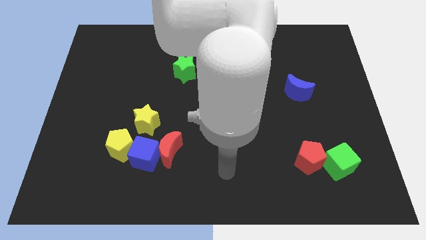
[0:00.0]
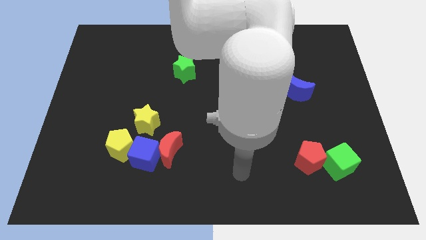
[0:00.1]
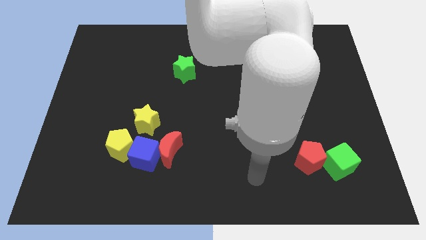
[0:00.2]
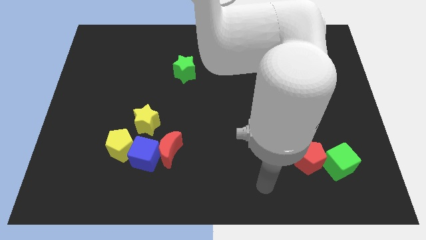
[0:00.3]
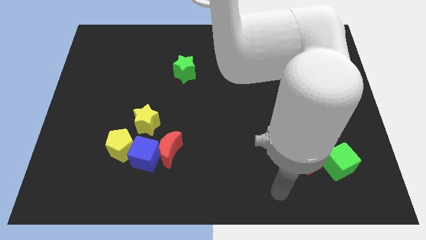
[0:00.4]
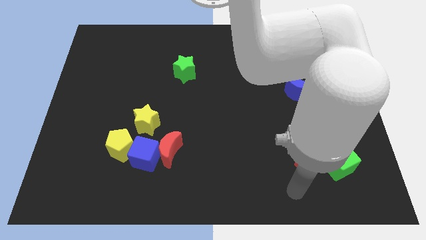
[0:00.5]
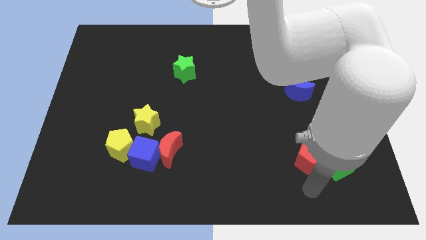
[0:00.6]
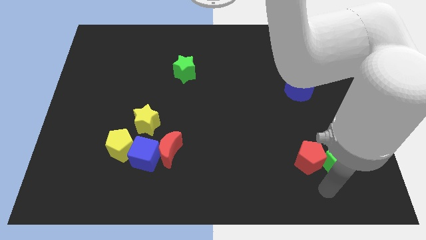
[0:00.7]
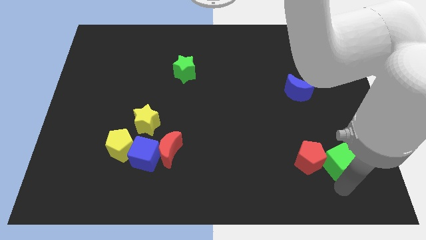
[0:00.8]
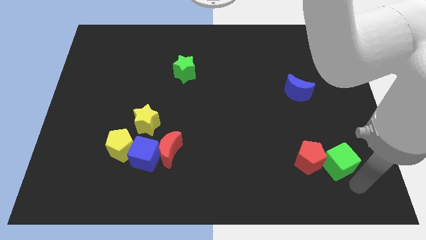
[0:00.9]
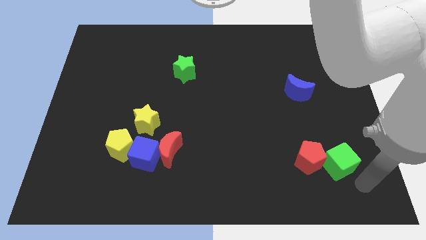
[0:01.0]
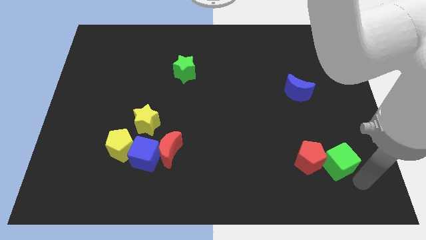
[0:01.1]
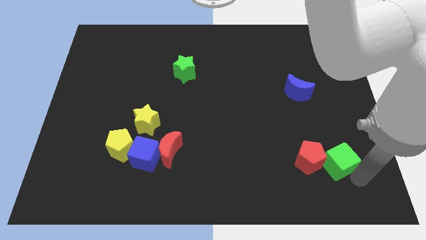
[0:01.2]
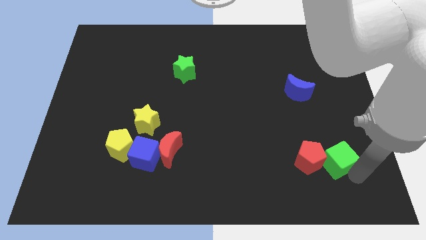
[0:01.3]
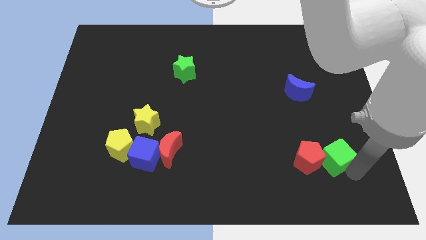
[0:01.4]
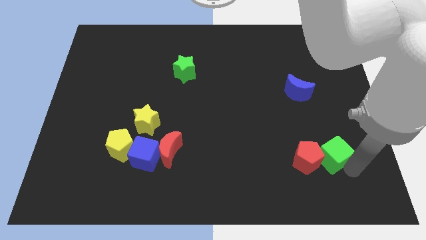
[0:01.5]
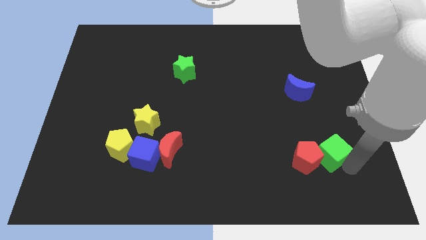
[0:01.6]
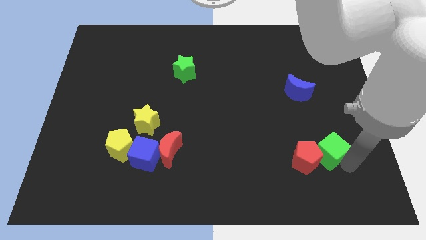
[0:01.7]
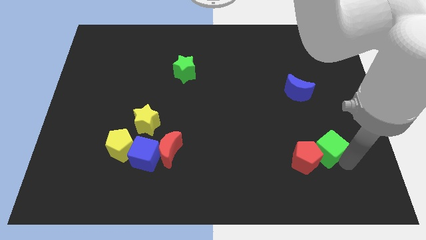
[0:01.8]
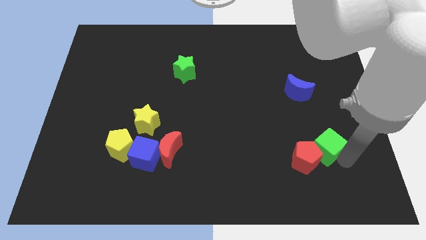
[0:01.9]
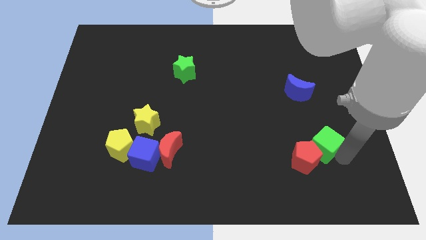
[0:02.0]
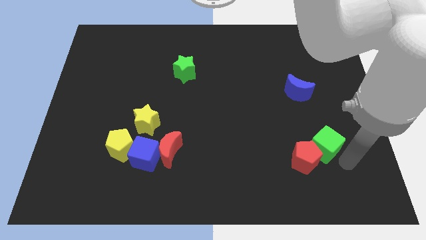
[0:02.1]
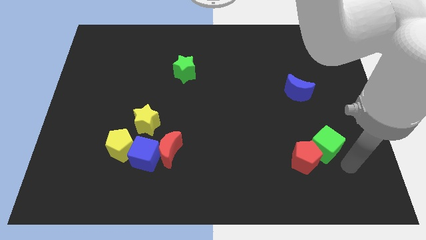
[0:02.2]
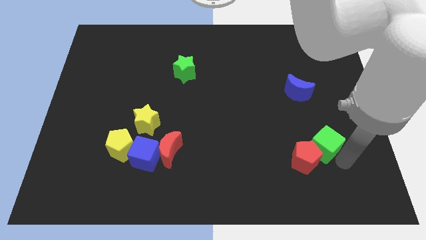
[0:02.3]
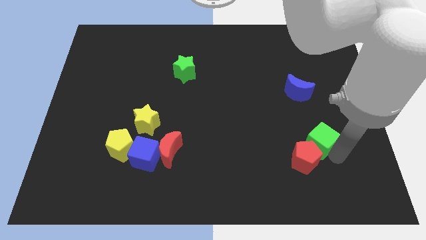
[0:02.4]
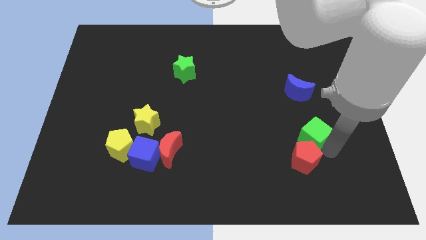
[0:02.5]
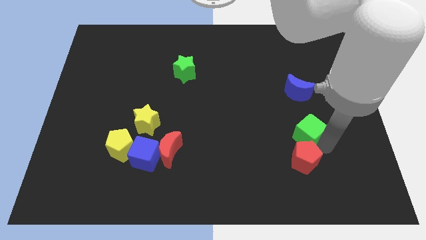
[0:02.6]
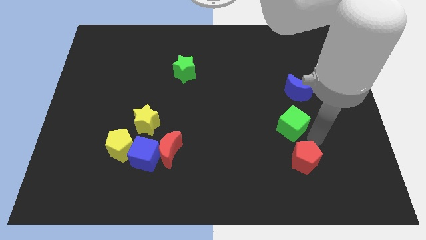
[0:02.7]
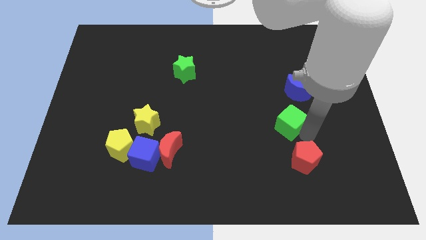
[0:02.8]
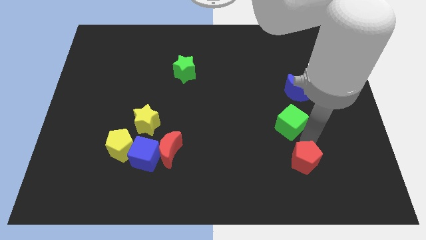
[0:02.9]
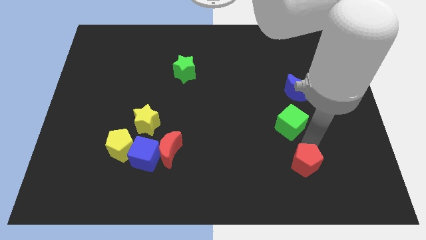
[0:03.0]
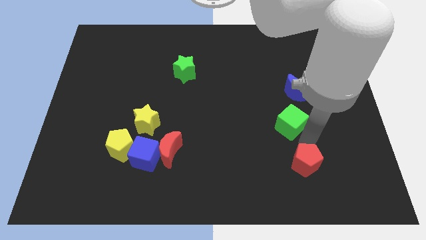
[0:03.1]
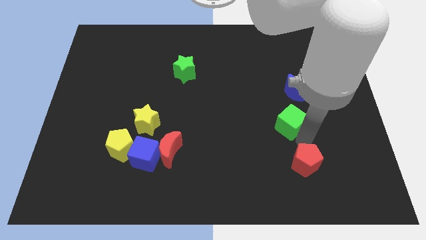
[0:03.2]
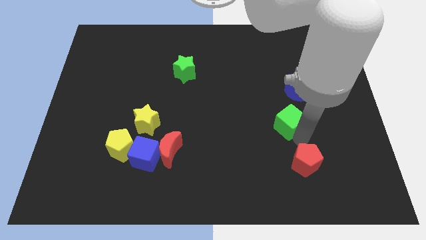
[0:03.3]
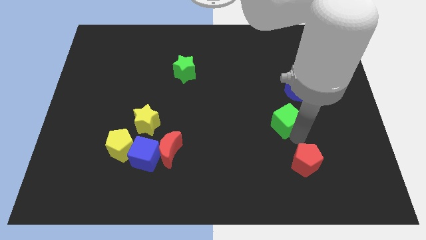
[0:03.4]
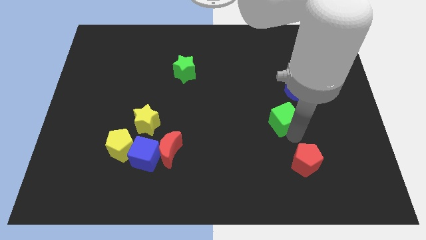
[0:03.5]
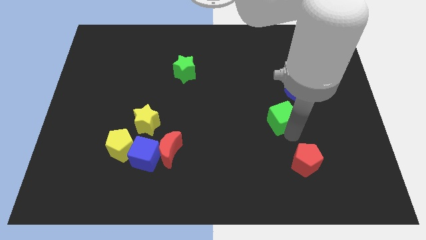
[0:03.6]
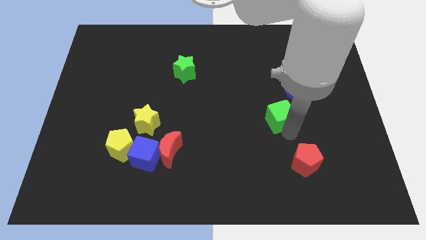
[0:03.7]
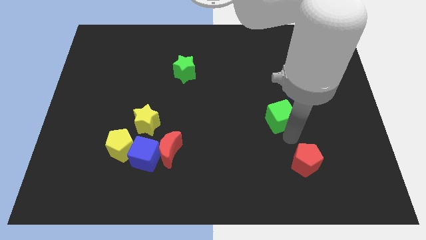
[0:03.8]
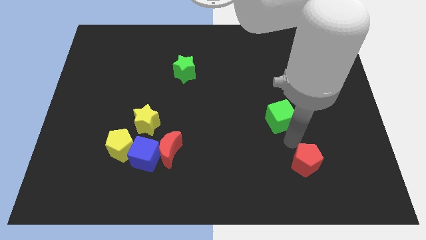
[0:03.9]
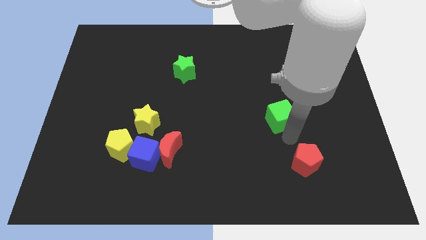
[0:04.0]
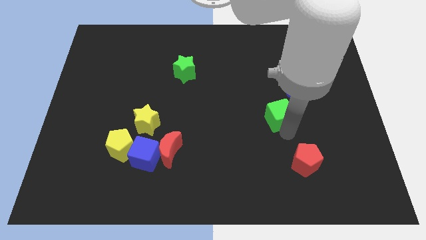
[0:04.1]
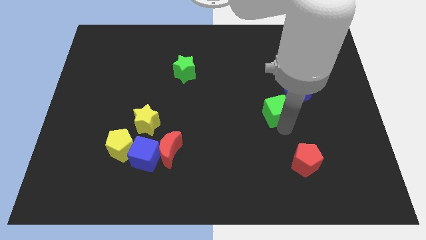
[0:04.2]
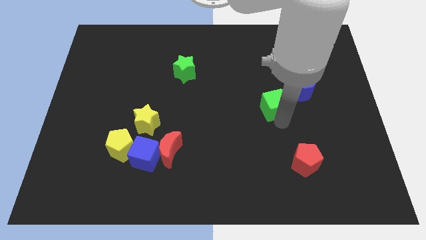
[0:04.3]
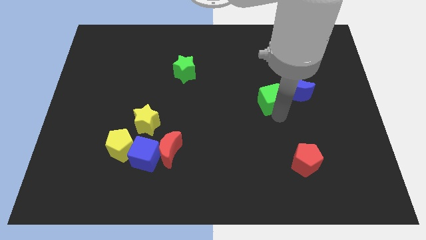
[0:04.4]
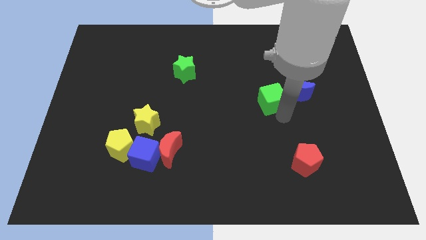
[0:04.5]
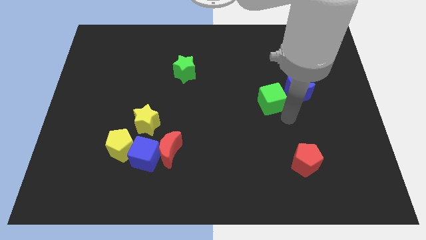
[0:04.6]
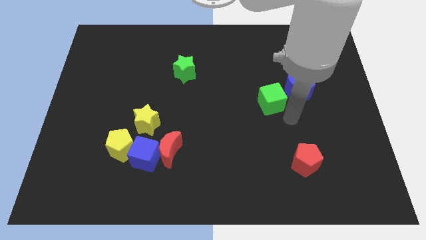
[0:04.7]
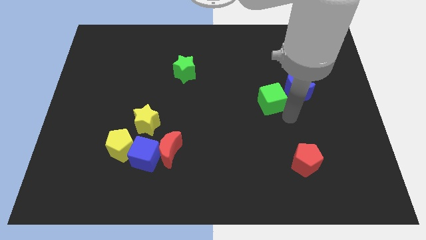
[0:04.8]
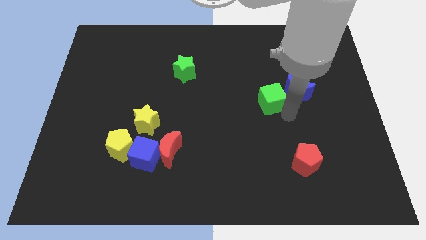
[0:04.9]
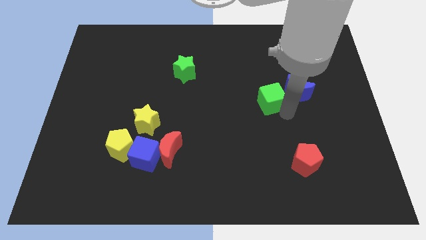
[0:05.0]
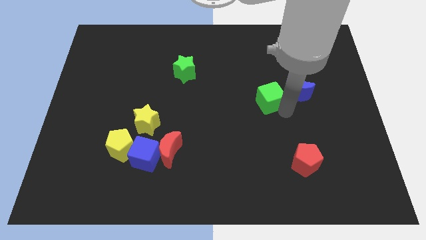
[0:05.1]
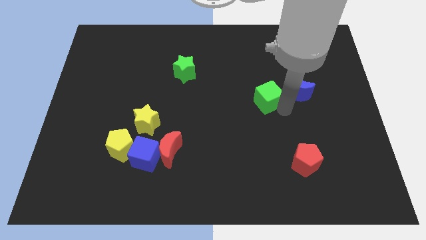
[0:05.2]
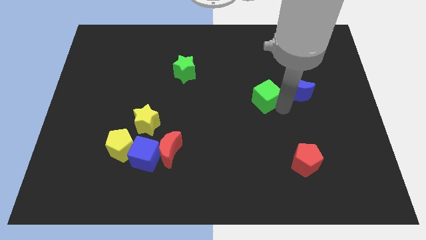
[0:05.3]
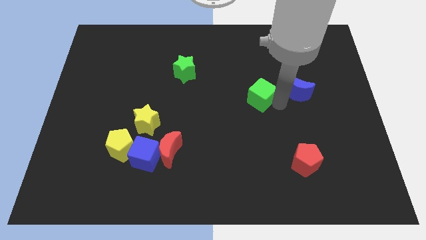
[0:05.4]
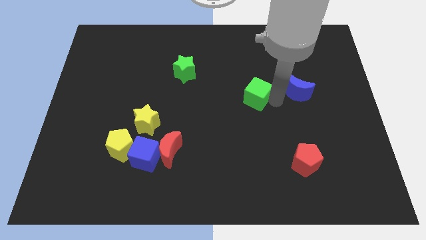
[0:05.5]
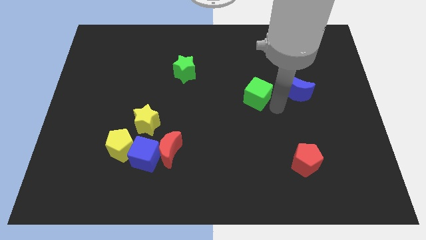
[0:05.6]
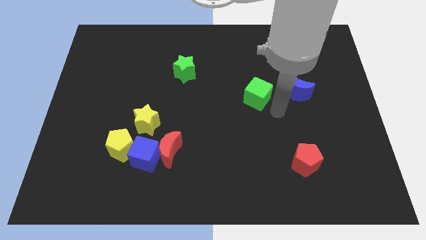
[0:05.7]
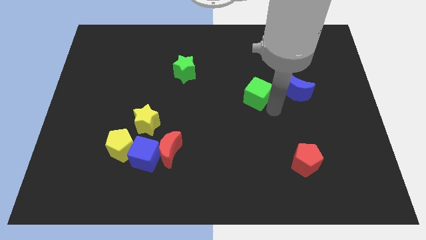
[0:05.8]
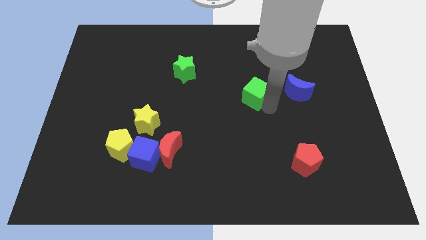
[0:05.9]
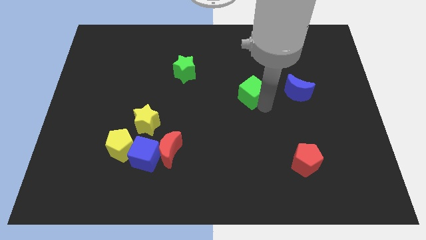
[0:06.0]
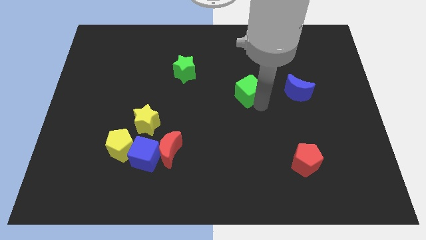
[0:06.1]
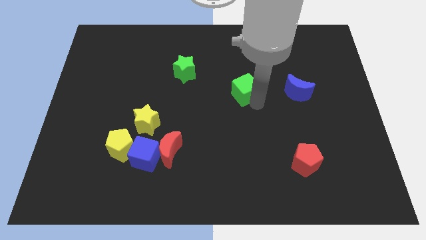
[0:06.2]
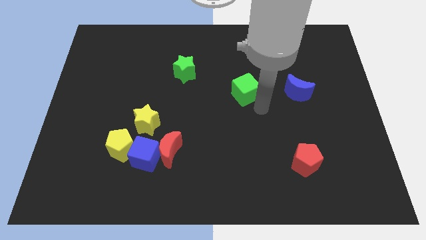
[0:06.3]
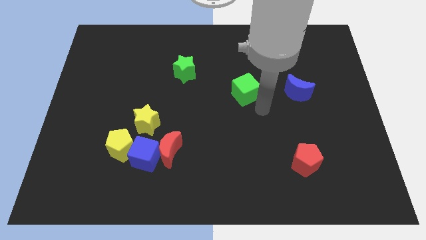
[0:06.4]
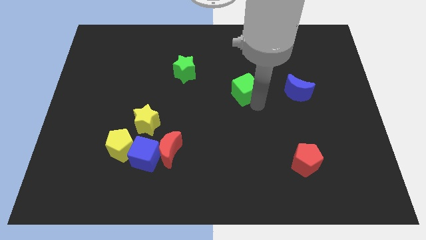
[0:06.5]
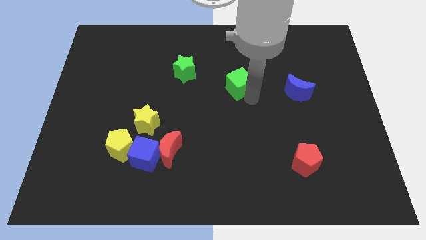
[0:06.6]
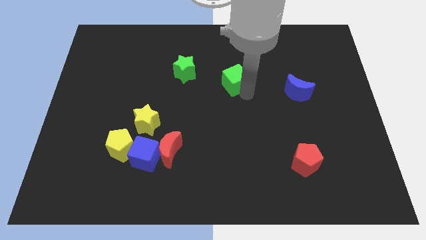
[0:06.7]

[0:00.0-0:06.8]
put the green cube to the right of the green star

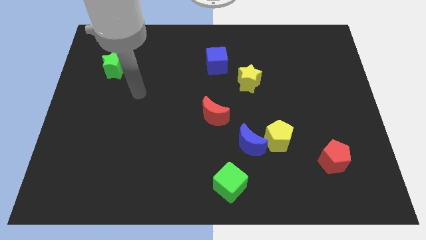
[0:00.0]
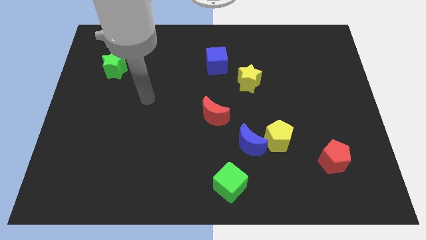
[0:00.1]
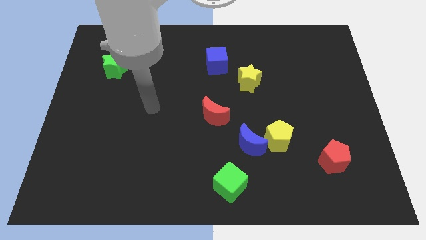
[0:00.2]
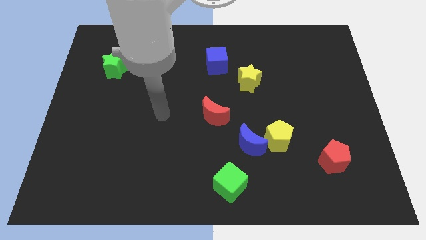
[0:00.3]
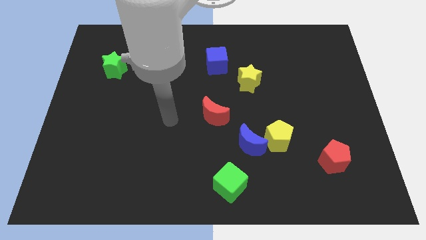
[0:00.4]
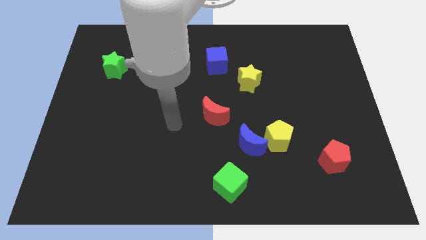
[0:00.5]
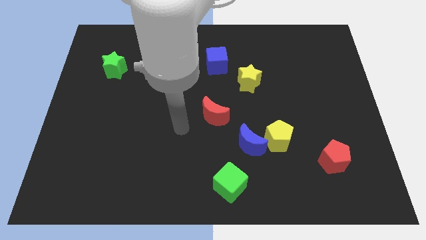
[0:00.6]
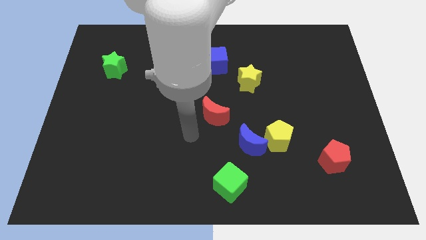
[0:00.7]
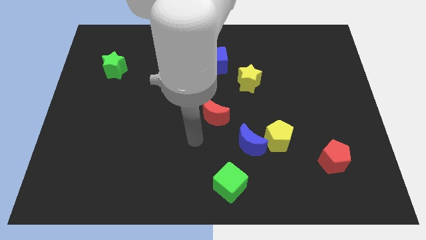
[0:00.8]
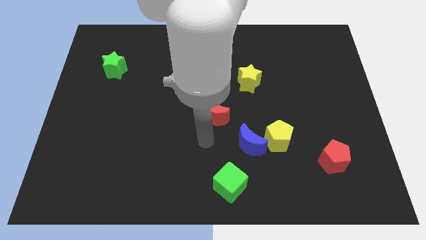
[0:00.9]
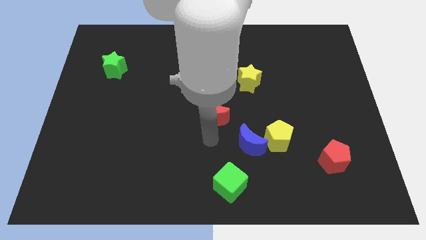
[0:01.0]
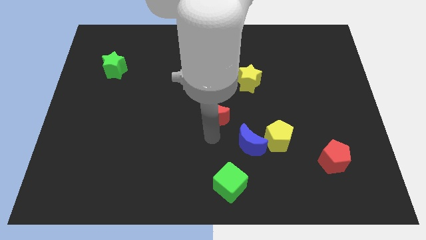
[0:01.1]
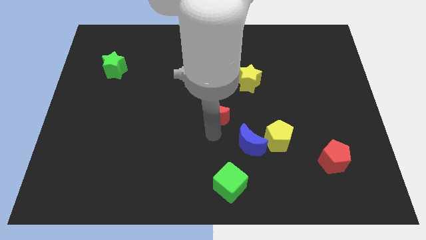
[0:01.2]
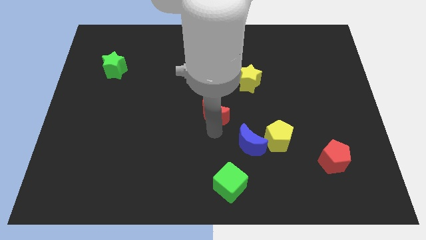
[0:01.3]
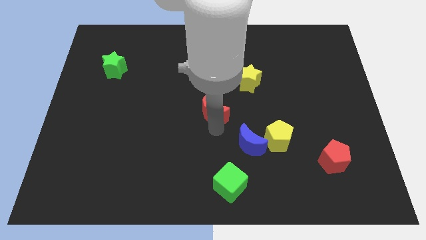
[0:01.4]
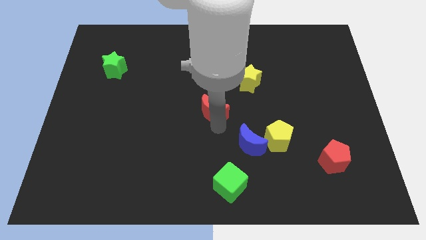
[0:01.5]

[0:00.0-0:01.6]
push the red moon below the blue cube
